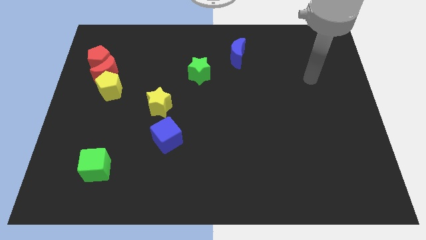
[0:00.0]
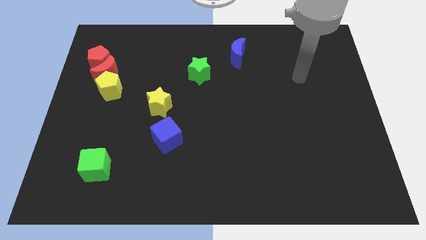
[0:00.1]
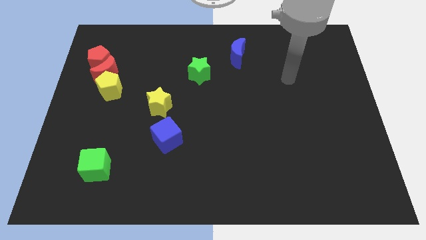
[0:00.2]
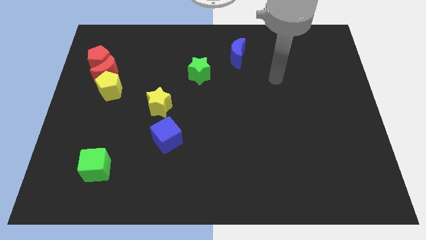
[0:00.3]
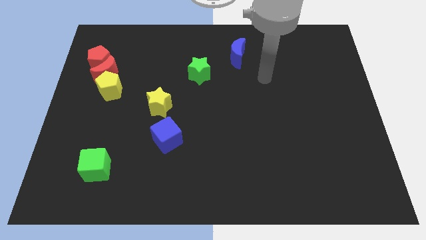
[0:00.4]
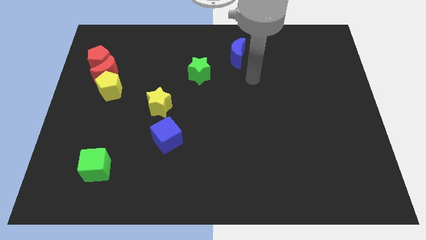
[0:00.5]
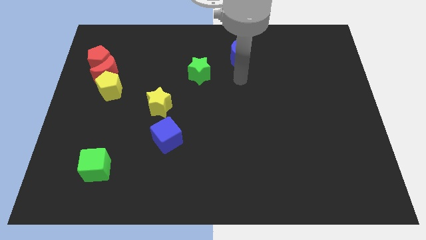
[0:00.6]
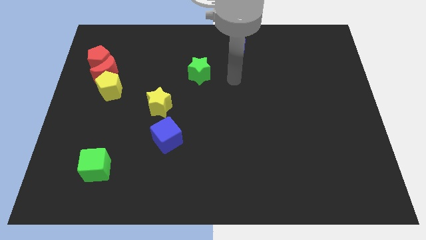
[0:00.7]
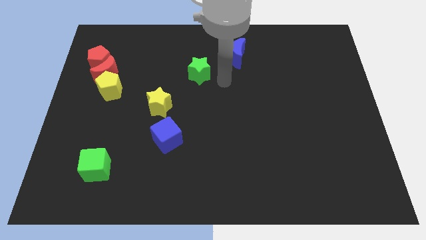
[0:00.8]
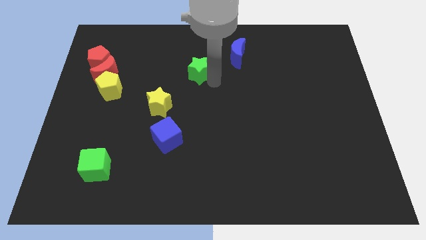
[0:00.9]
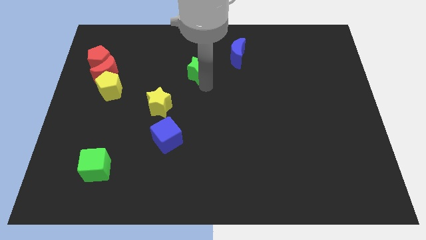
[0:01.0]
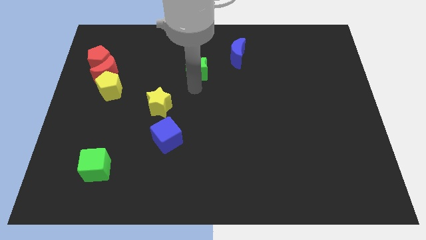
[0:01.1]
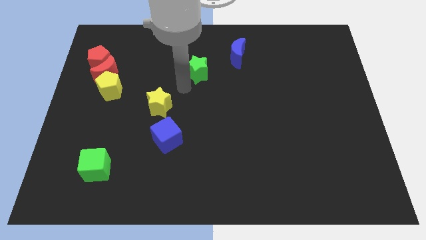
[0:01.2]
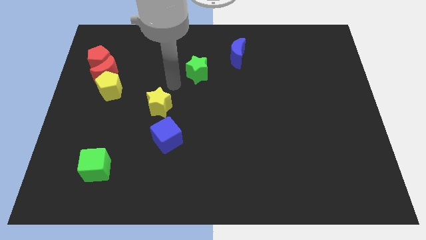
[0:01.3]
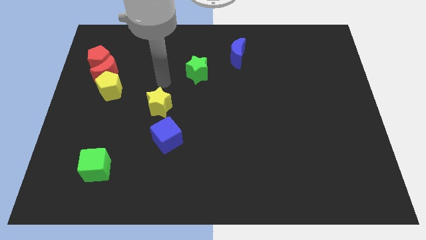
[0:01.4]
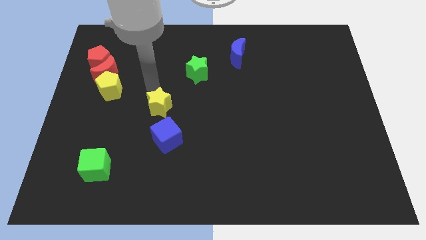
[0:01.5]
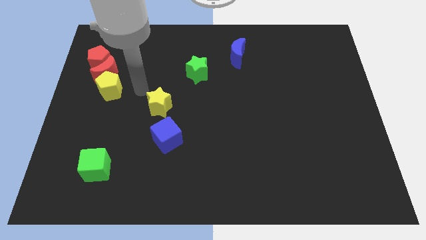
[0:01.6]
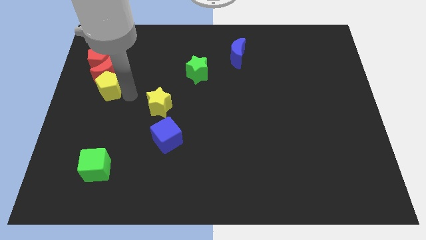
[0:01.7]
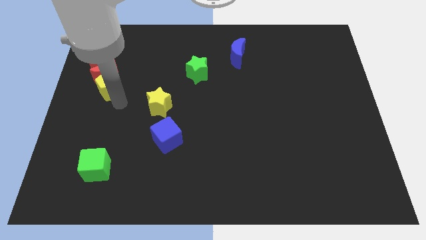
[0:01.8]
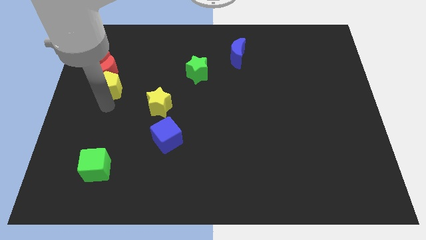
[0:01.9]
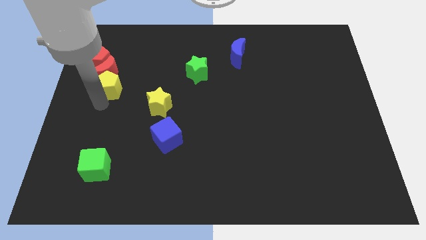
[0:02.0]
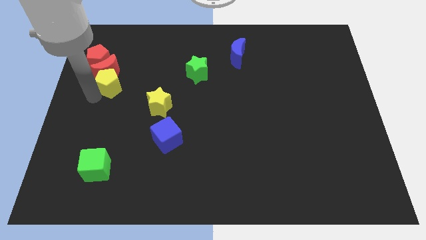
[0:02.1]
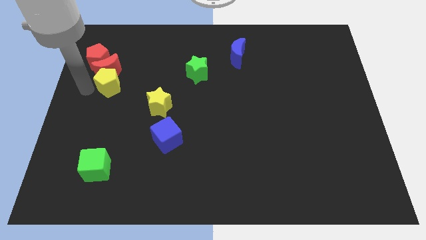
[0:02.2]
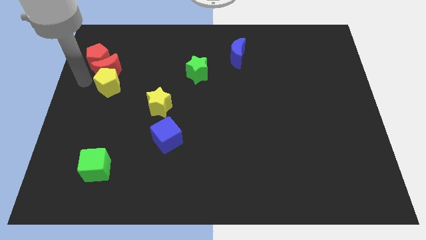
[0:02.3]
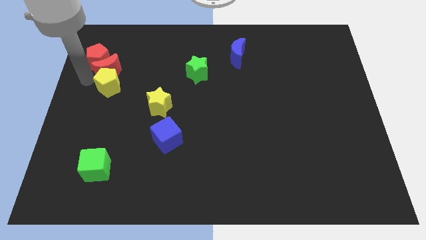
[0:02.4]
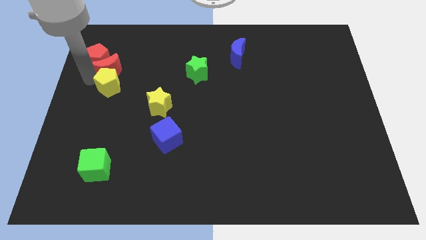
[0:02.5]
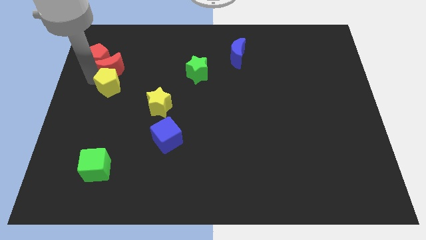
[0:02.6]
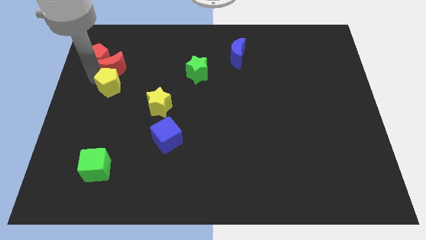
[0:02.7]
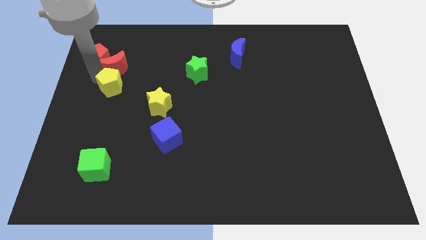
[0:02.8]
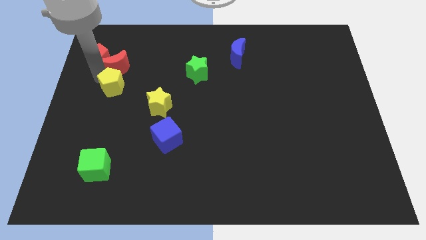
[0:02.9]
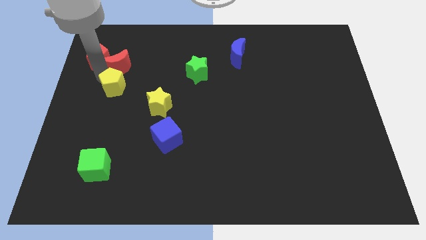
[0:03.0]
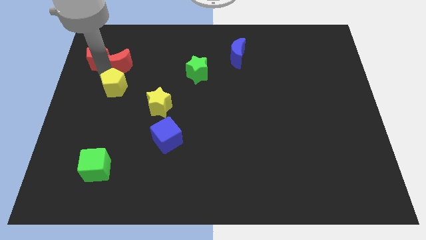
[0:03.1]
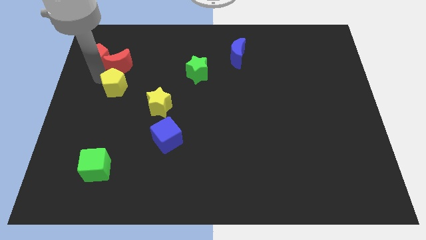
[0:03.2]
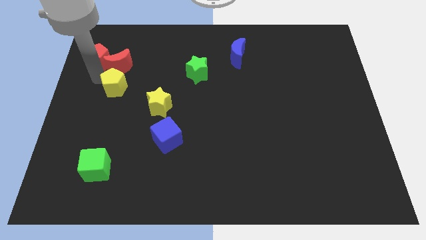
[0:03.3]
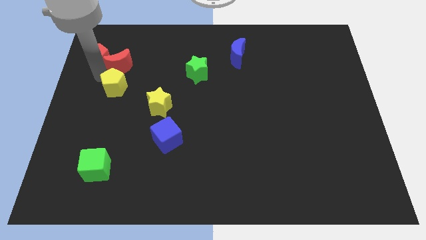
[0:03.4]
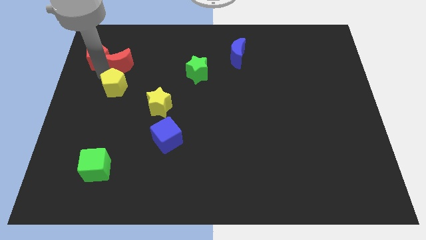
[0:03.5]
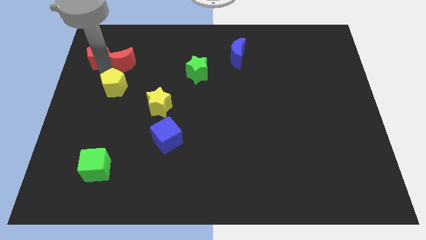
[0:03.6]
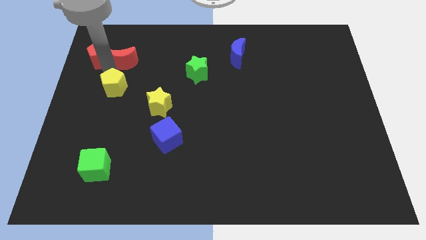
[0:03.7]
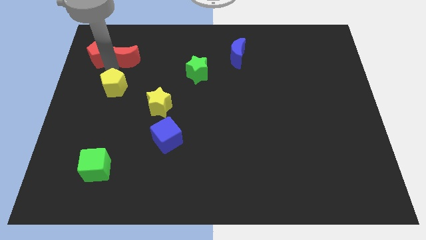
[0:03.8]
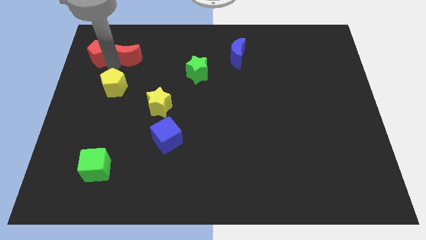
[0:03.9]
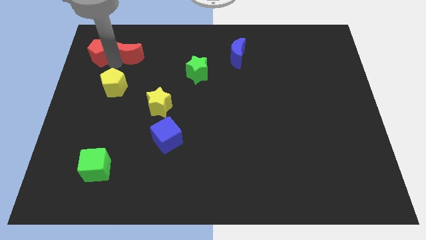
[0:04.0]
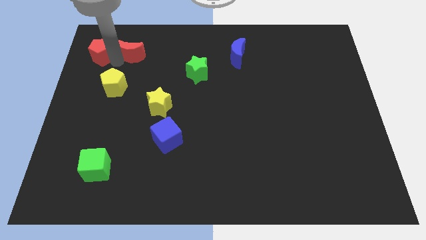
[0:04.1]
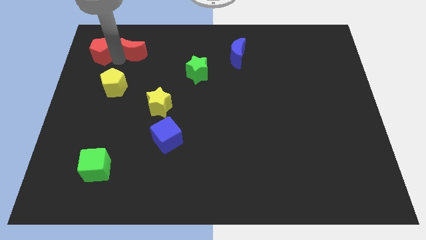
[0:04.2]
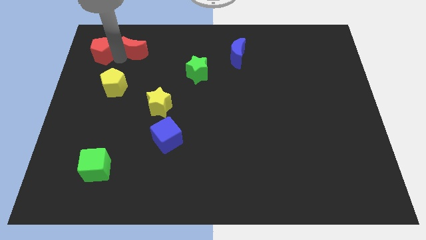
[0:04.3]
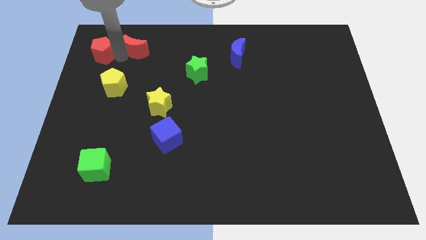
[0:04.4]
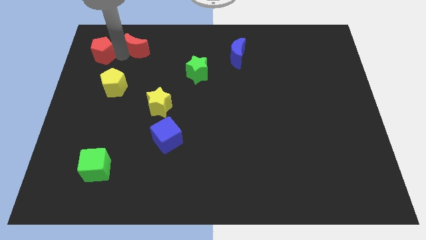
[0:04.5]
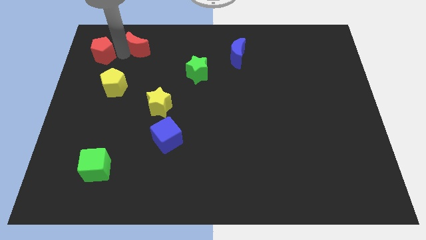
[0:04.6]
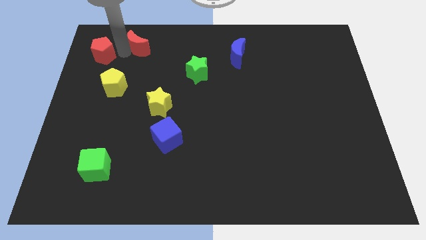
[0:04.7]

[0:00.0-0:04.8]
pull the red moon apart from the red pentagon and yellow pentagon

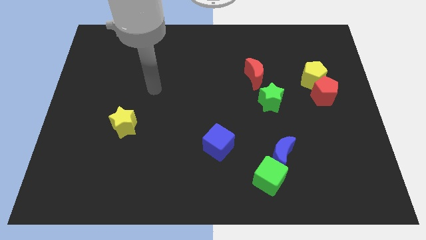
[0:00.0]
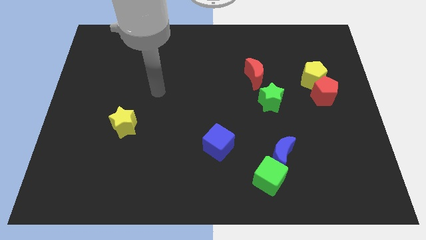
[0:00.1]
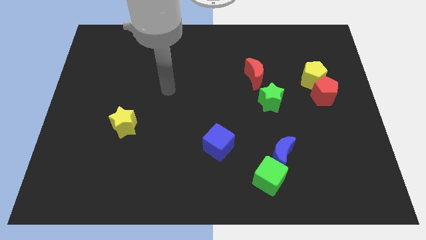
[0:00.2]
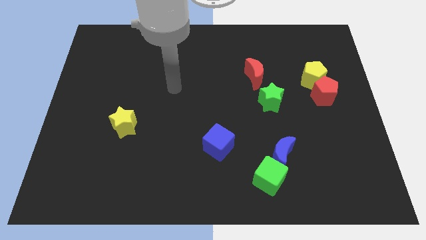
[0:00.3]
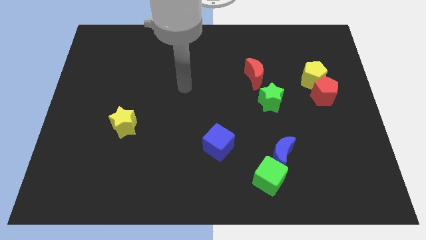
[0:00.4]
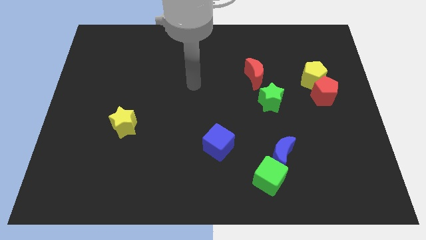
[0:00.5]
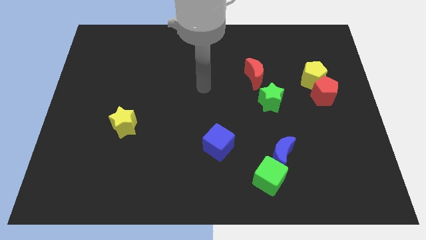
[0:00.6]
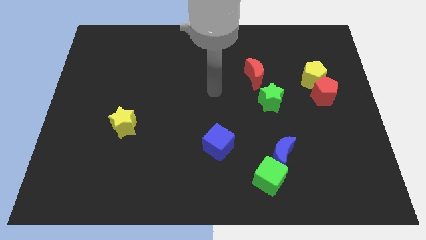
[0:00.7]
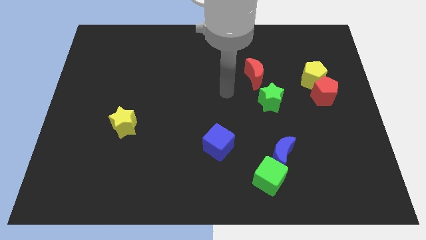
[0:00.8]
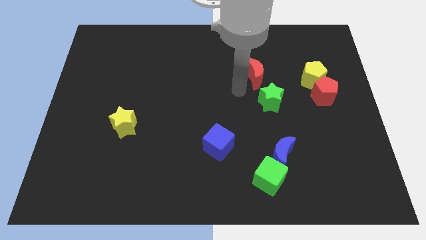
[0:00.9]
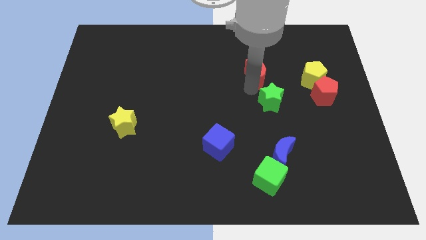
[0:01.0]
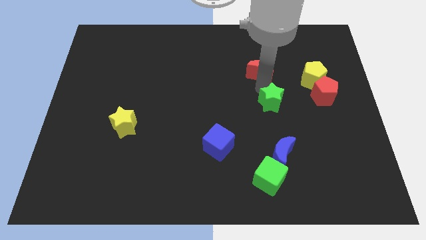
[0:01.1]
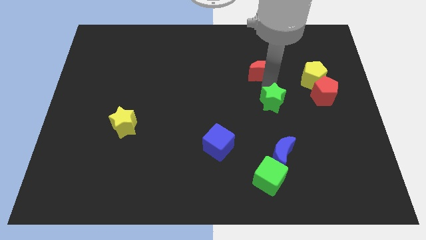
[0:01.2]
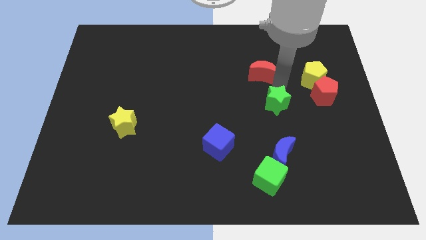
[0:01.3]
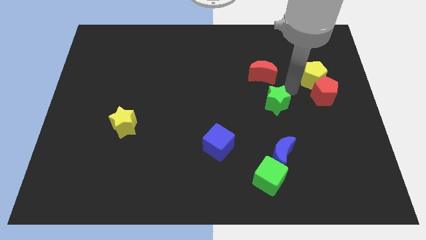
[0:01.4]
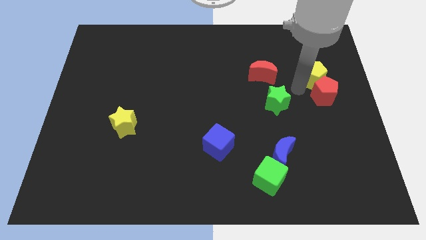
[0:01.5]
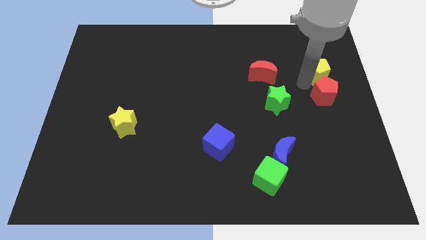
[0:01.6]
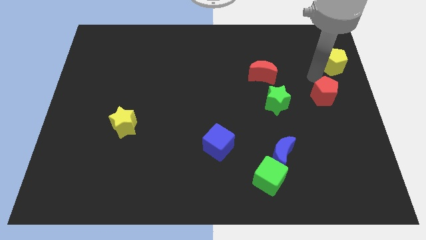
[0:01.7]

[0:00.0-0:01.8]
separate the red pentagon from the yellow pentagon

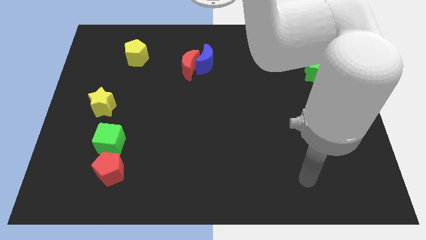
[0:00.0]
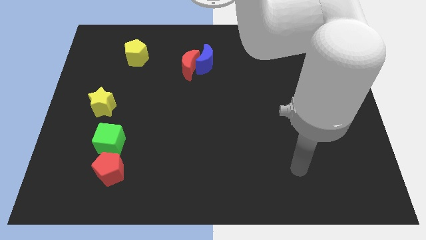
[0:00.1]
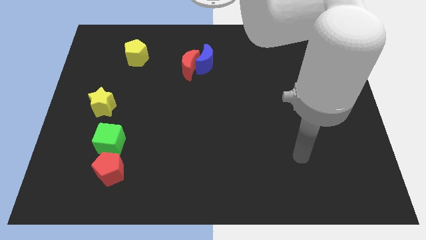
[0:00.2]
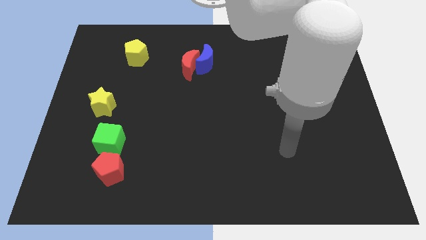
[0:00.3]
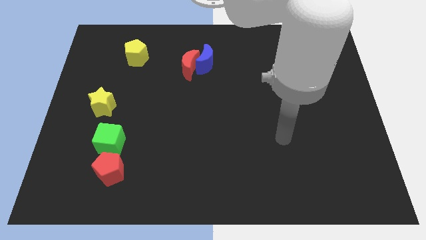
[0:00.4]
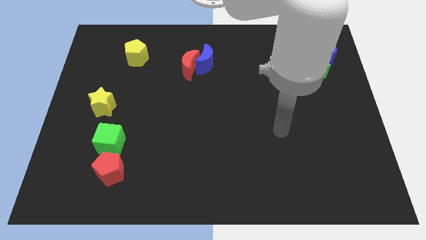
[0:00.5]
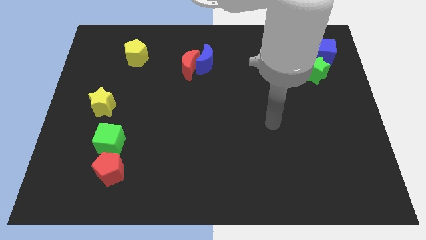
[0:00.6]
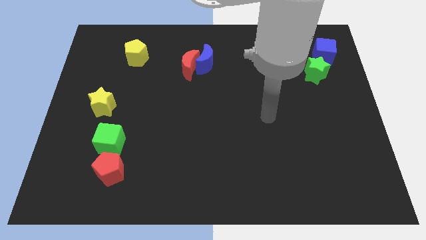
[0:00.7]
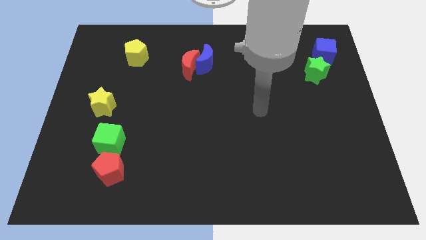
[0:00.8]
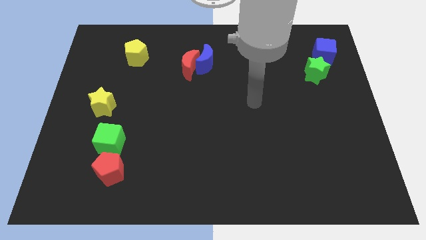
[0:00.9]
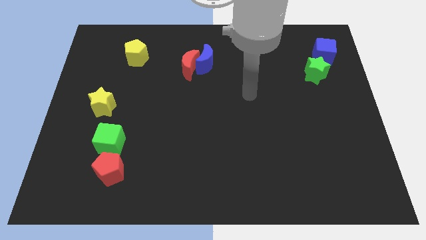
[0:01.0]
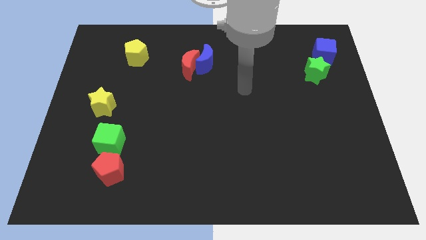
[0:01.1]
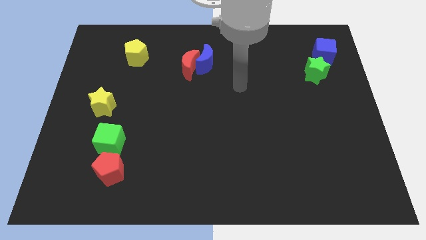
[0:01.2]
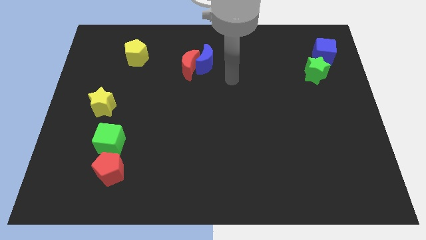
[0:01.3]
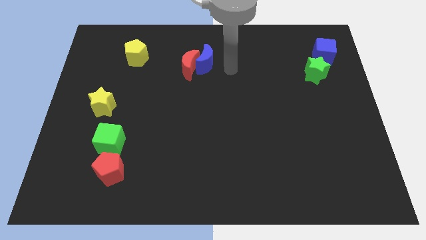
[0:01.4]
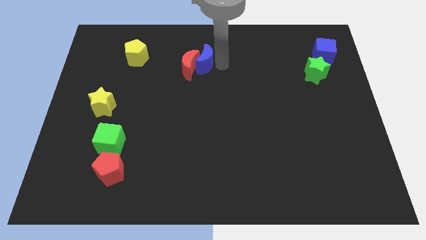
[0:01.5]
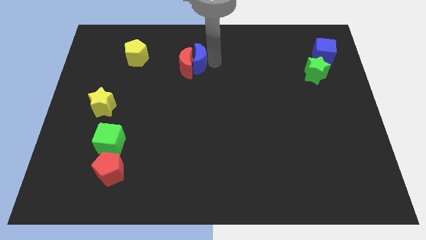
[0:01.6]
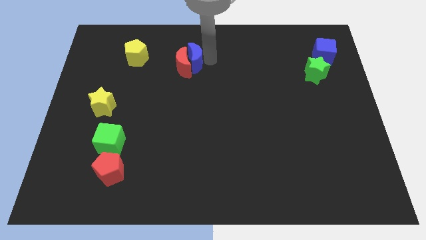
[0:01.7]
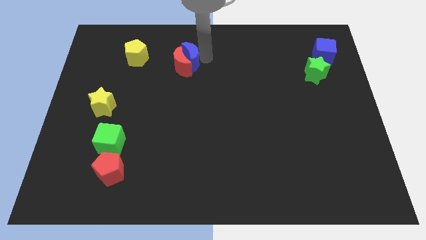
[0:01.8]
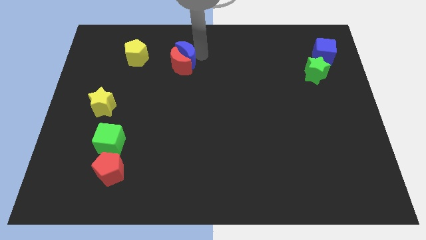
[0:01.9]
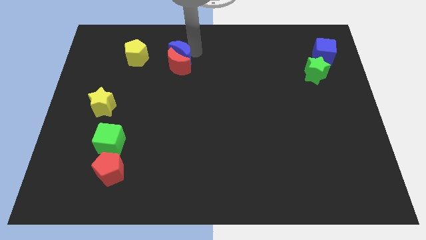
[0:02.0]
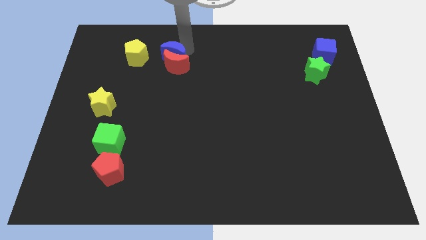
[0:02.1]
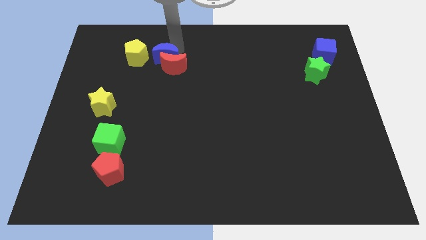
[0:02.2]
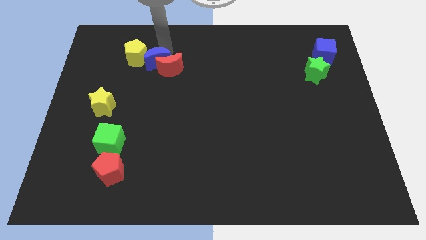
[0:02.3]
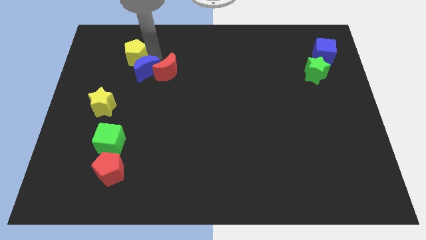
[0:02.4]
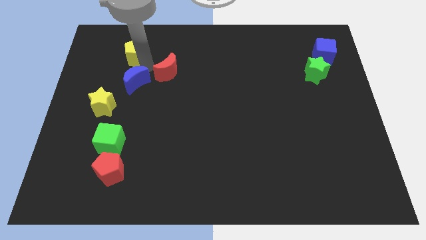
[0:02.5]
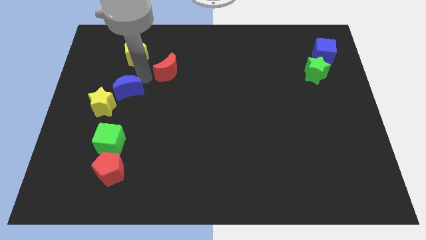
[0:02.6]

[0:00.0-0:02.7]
move the red moon away from the blue moon

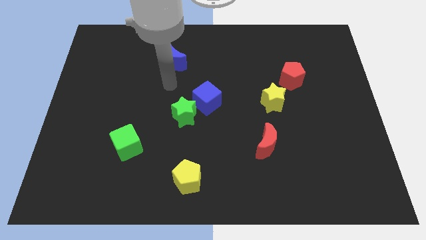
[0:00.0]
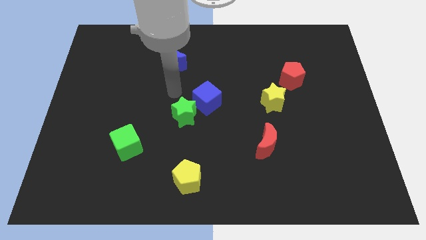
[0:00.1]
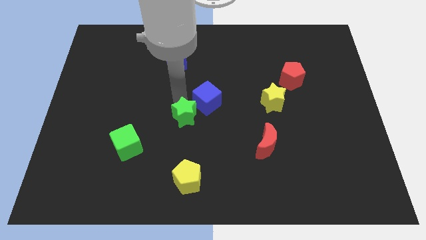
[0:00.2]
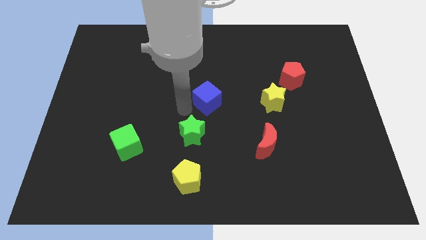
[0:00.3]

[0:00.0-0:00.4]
separate the blue cube from the green star
